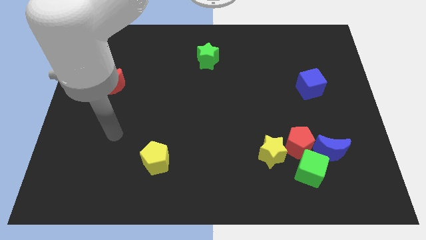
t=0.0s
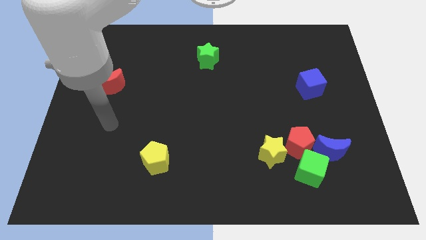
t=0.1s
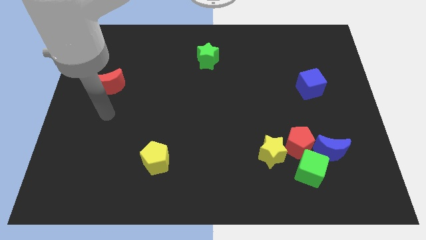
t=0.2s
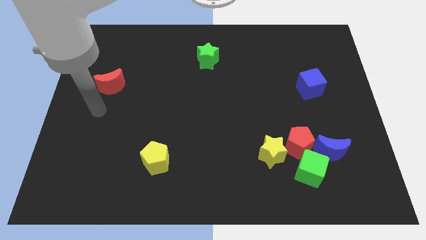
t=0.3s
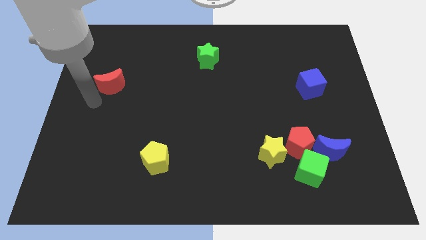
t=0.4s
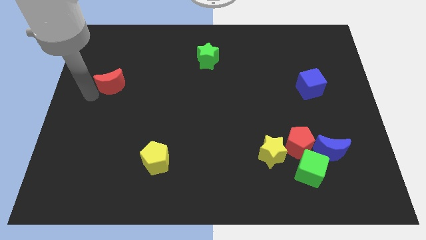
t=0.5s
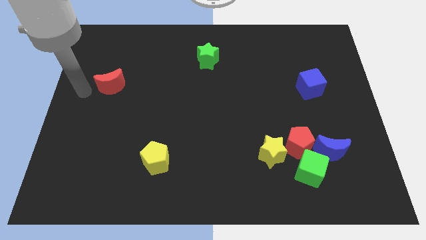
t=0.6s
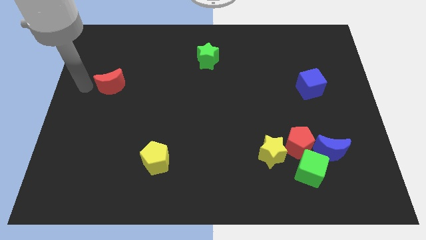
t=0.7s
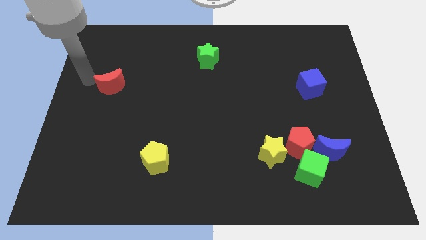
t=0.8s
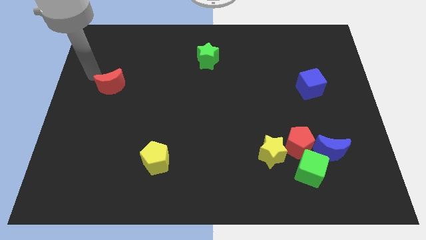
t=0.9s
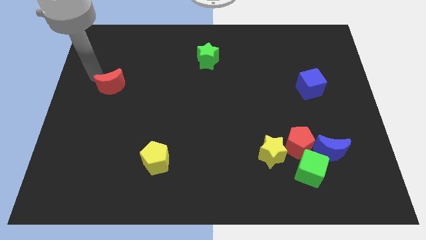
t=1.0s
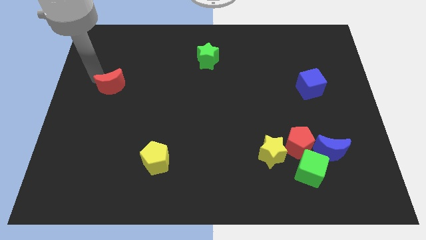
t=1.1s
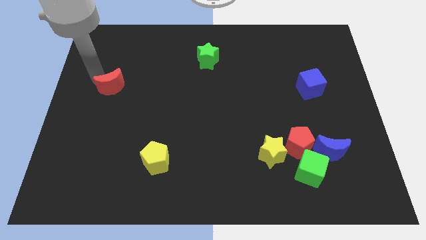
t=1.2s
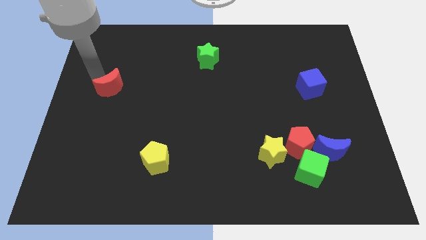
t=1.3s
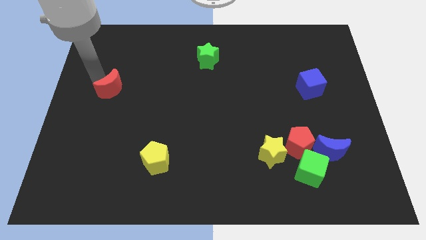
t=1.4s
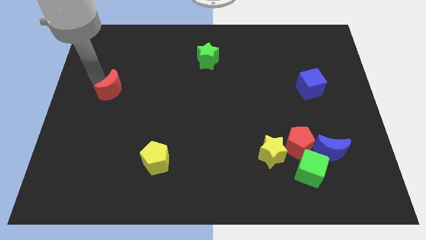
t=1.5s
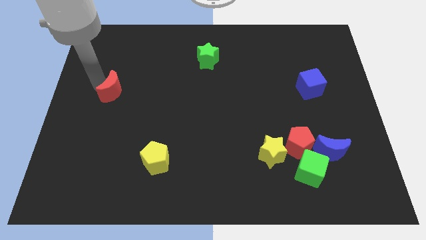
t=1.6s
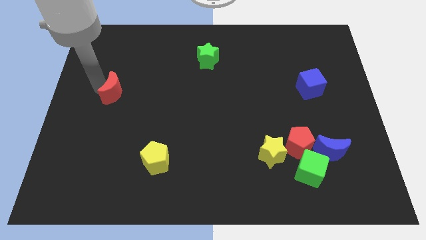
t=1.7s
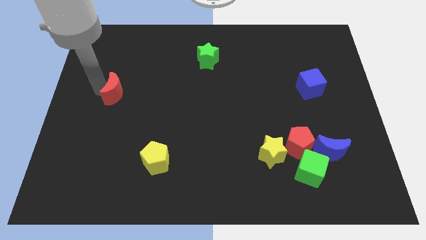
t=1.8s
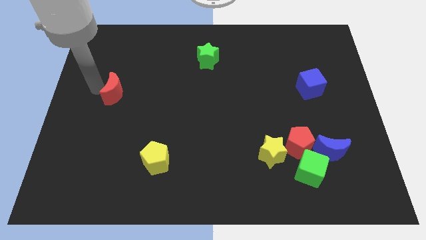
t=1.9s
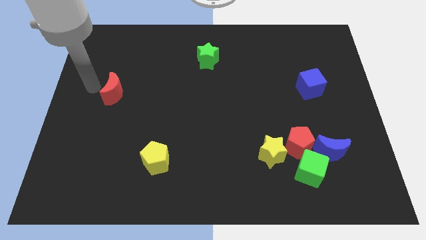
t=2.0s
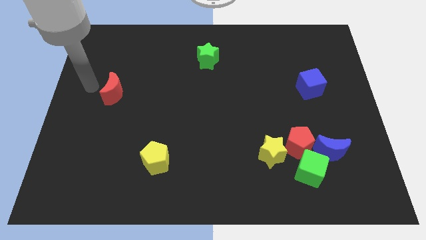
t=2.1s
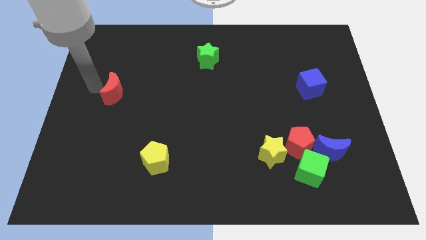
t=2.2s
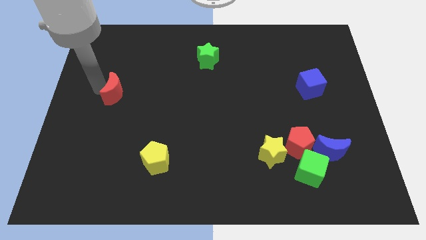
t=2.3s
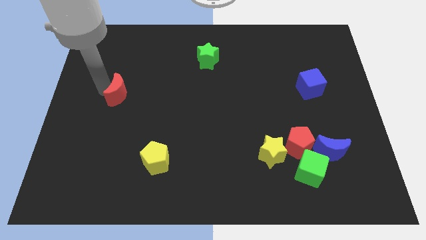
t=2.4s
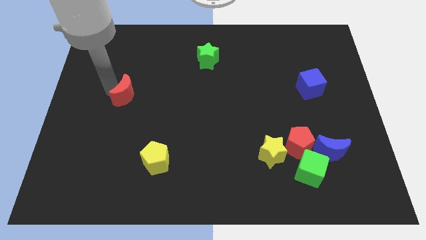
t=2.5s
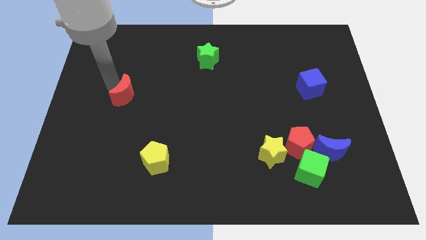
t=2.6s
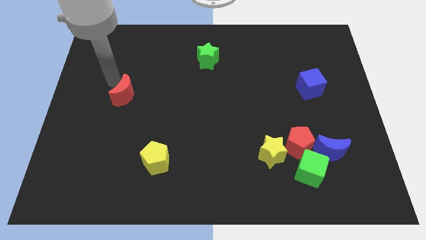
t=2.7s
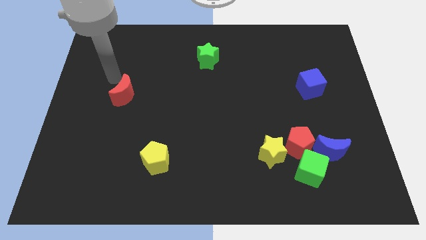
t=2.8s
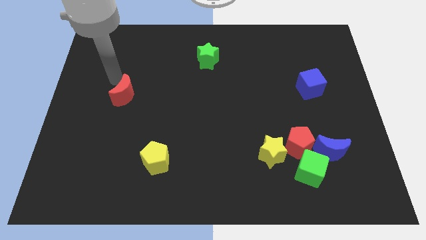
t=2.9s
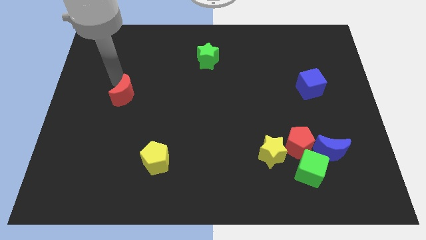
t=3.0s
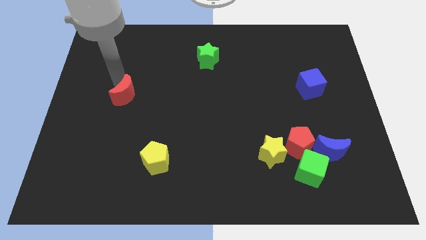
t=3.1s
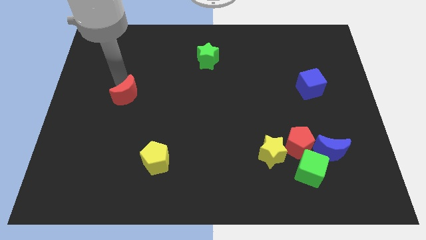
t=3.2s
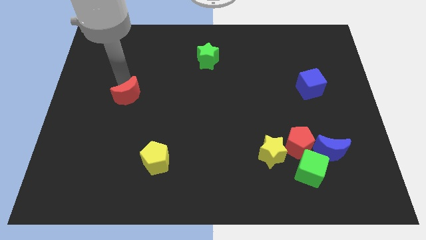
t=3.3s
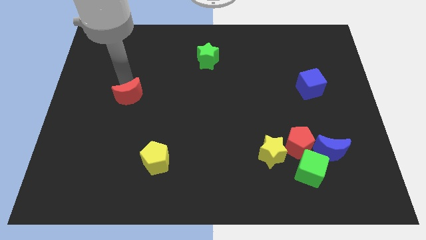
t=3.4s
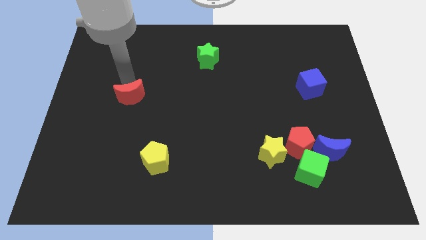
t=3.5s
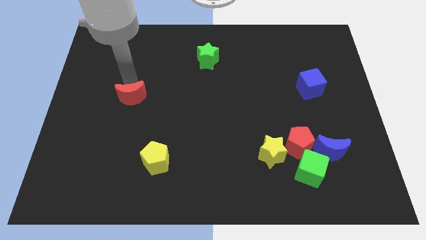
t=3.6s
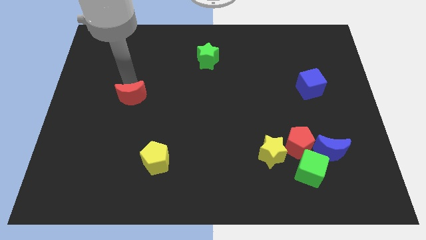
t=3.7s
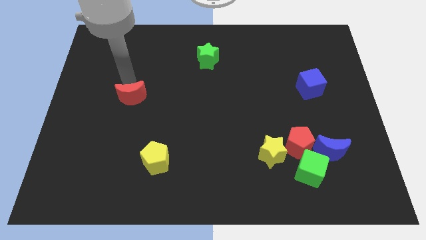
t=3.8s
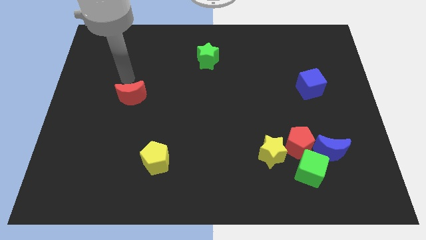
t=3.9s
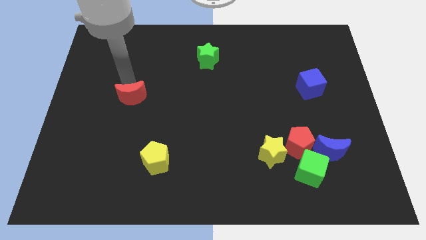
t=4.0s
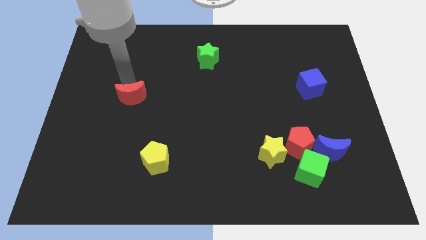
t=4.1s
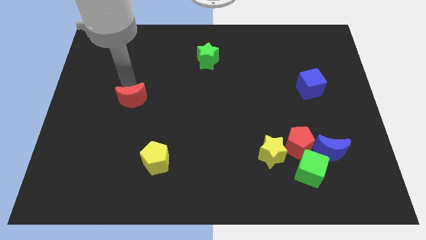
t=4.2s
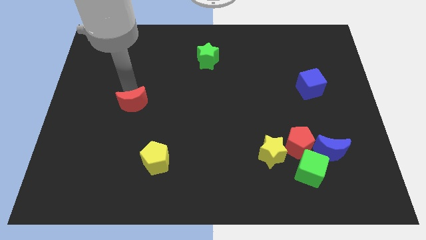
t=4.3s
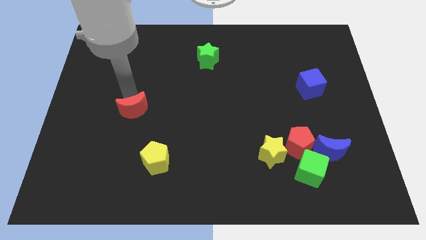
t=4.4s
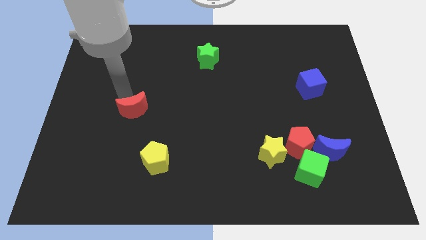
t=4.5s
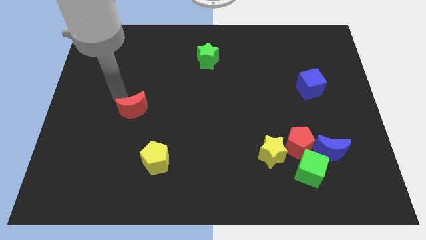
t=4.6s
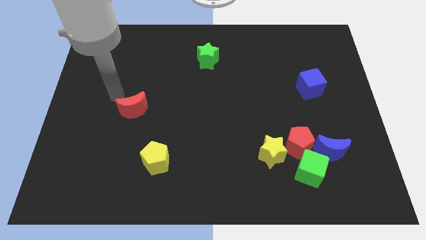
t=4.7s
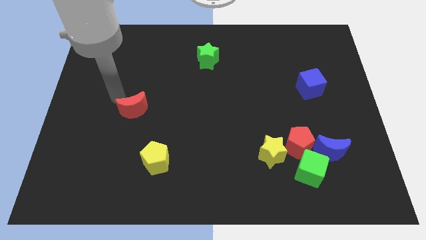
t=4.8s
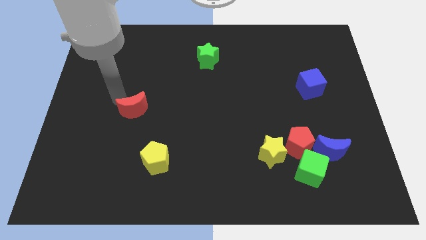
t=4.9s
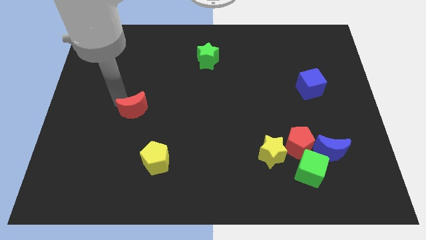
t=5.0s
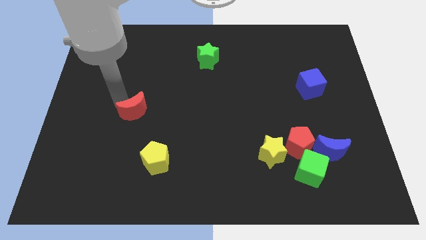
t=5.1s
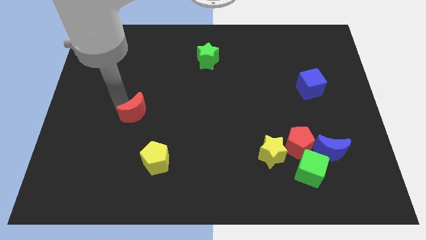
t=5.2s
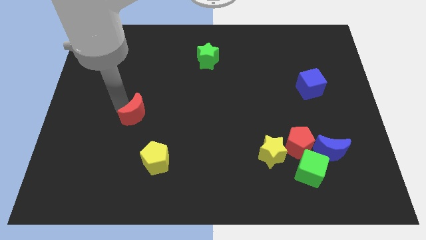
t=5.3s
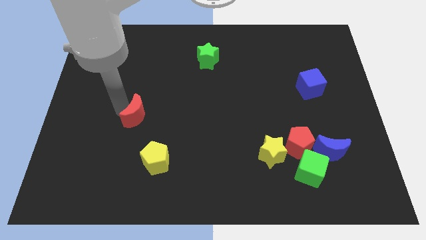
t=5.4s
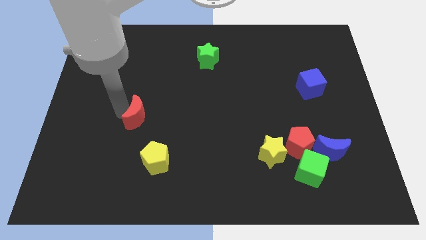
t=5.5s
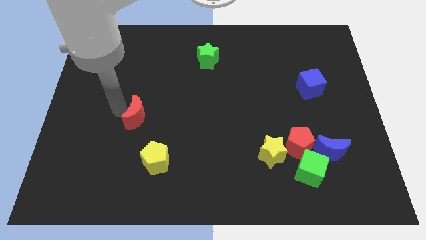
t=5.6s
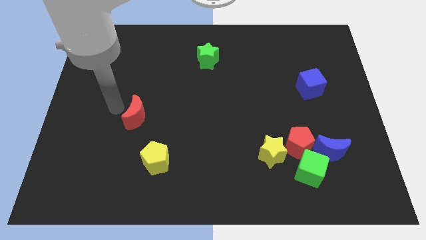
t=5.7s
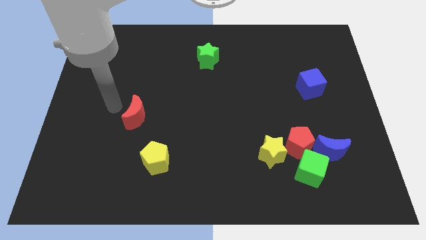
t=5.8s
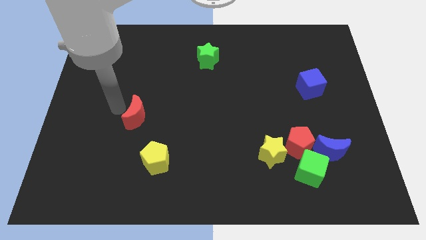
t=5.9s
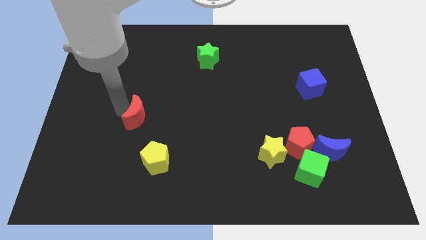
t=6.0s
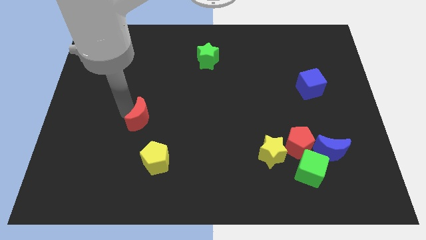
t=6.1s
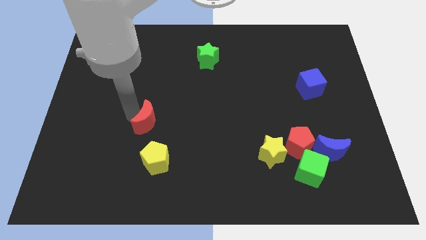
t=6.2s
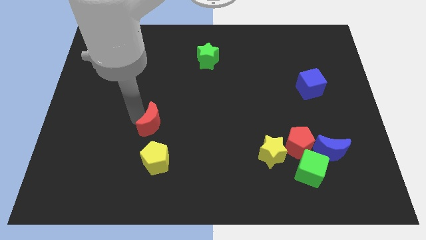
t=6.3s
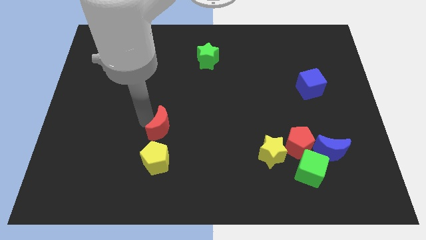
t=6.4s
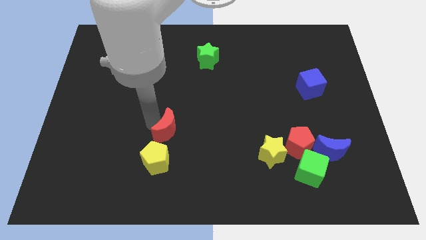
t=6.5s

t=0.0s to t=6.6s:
push the red moon to the top right side of the yellow pentagon

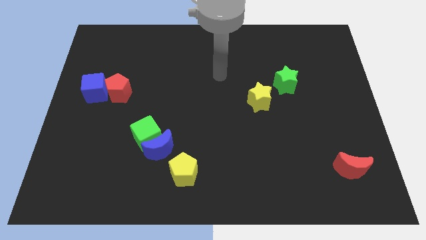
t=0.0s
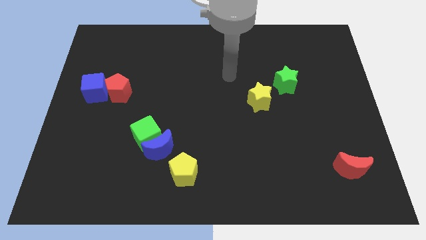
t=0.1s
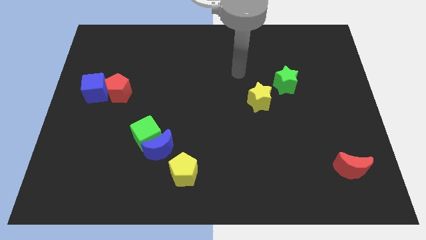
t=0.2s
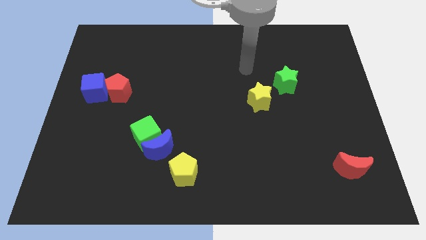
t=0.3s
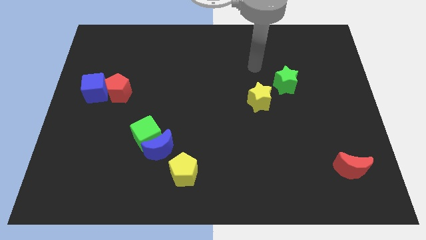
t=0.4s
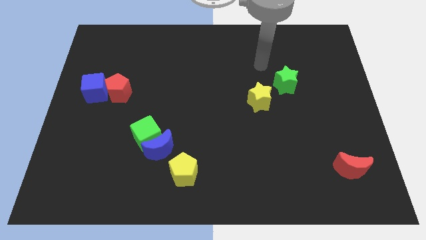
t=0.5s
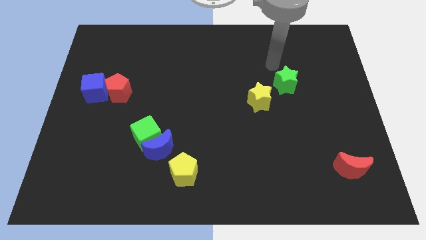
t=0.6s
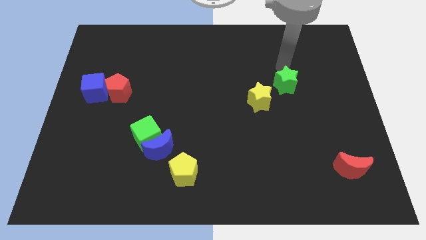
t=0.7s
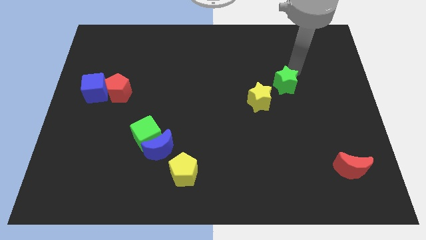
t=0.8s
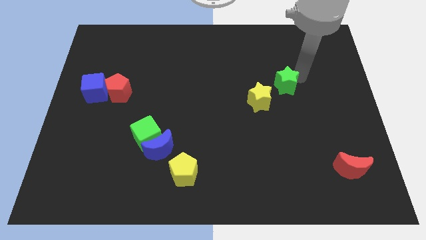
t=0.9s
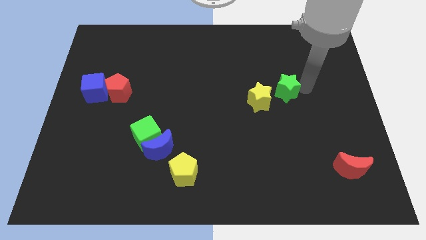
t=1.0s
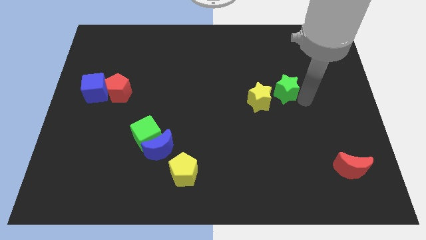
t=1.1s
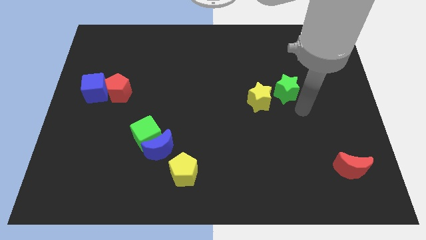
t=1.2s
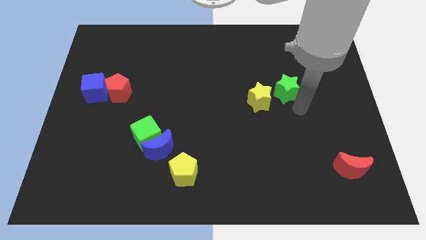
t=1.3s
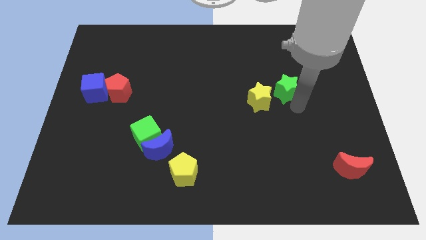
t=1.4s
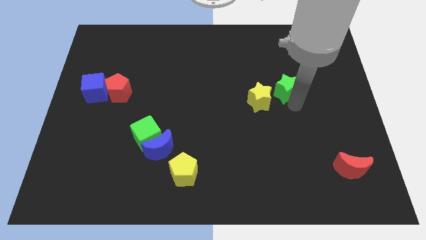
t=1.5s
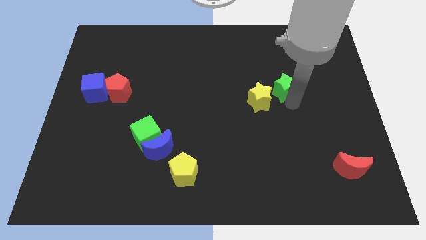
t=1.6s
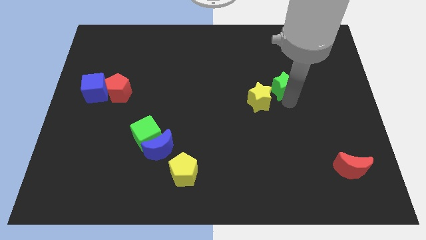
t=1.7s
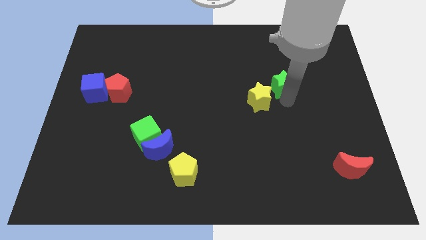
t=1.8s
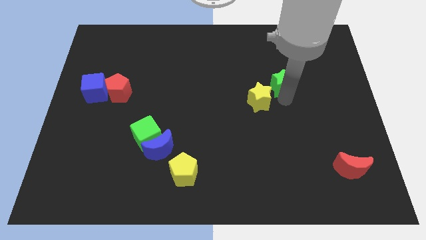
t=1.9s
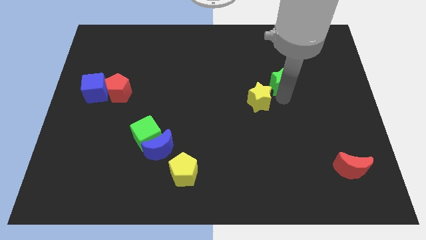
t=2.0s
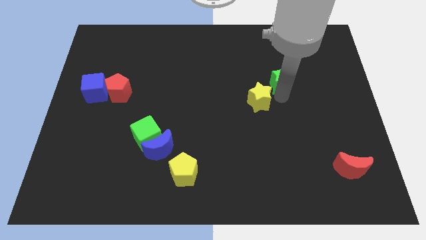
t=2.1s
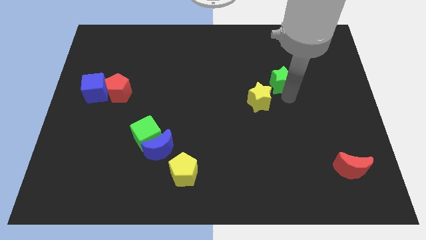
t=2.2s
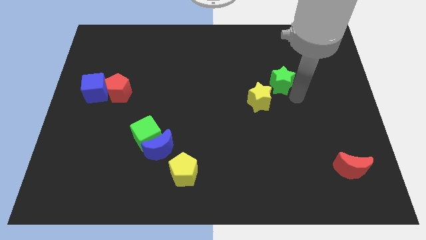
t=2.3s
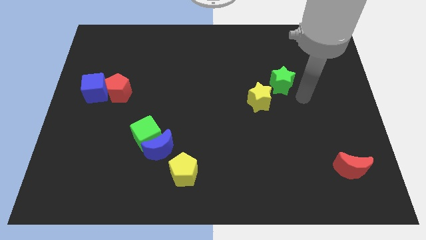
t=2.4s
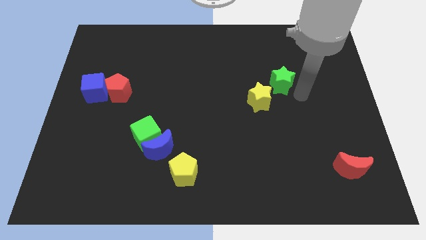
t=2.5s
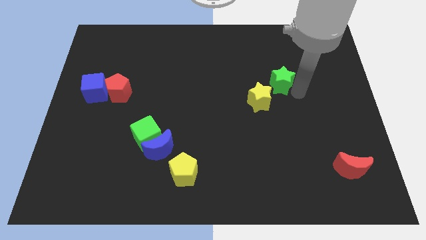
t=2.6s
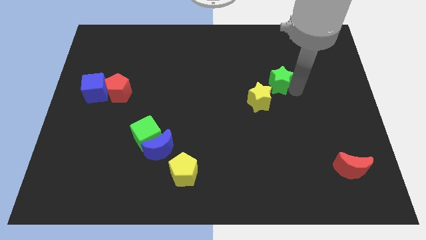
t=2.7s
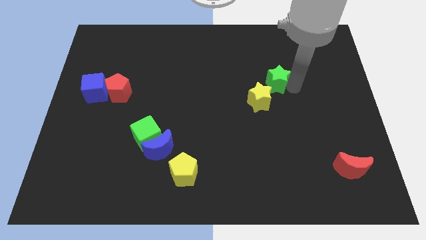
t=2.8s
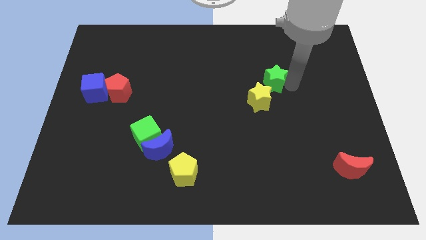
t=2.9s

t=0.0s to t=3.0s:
push the green star above the yellow star
